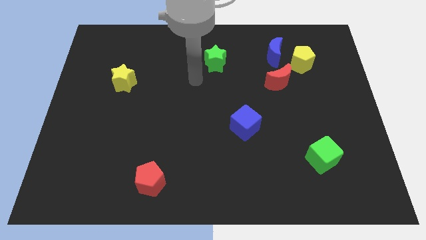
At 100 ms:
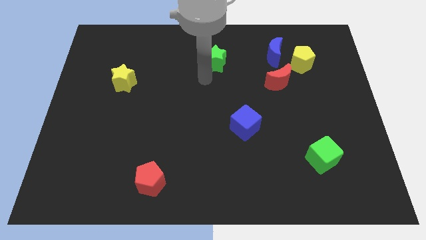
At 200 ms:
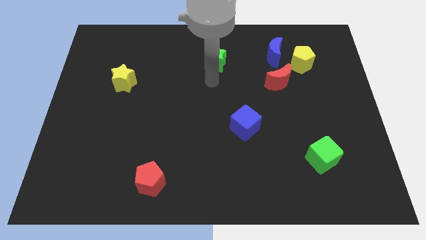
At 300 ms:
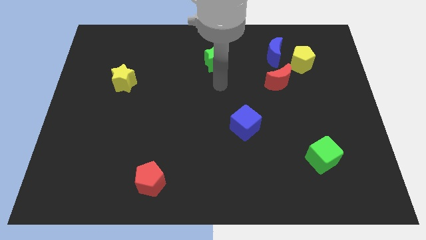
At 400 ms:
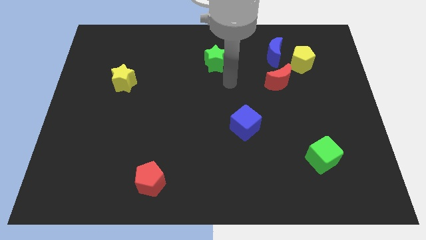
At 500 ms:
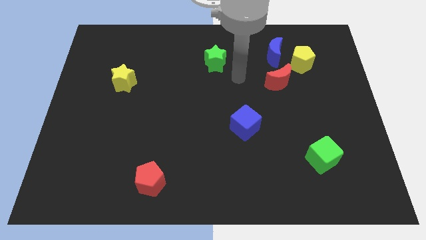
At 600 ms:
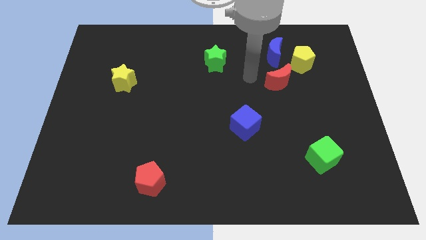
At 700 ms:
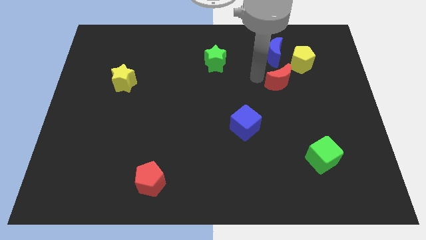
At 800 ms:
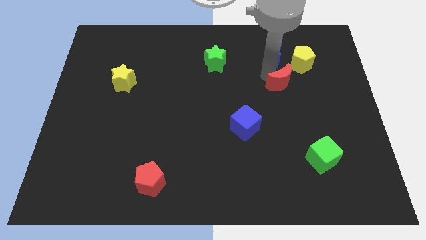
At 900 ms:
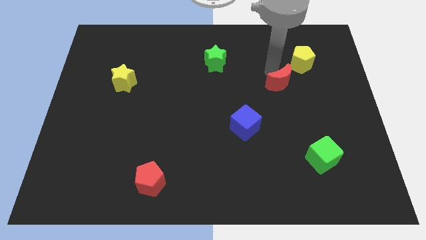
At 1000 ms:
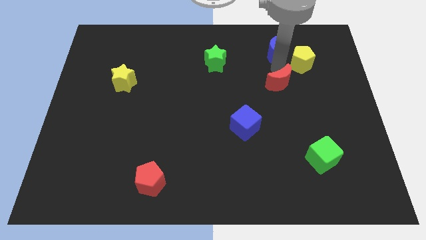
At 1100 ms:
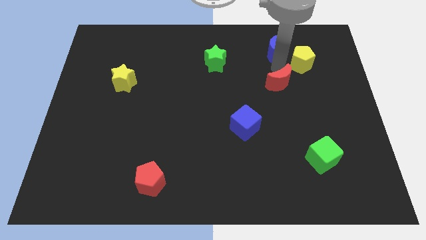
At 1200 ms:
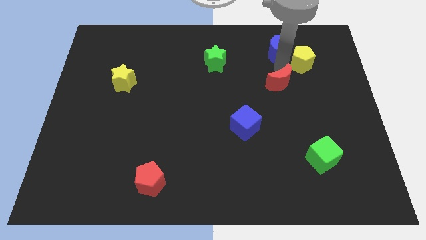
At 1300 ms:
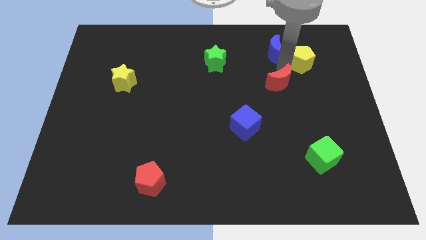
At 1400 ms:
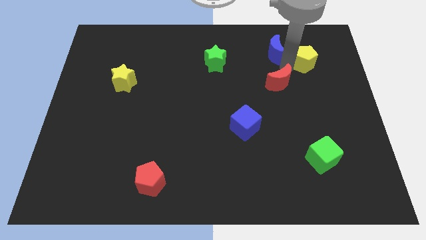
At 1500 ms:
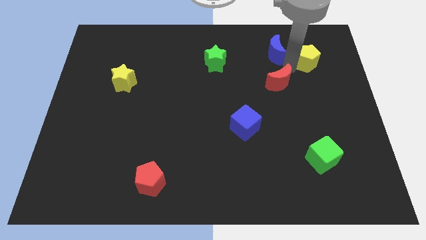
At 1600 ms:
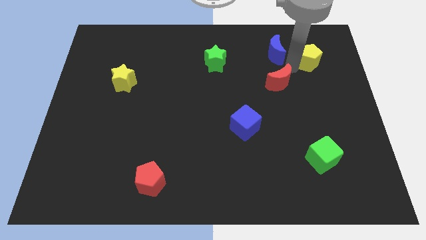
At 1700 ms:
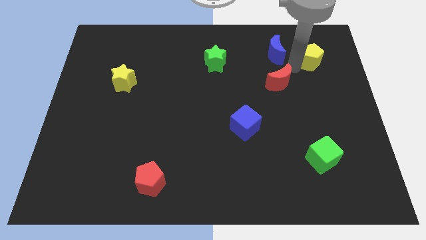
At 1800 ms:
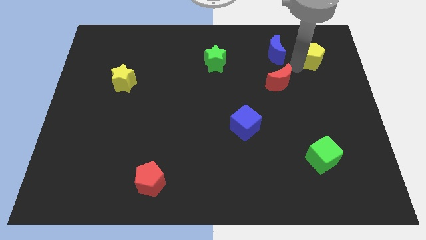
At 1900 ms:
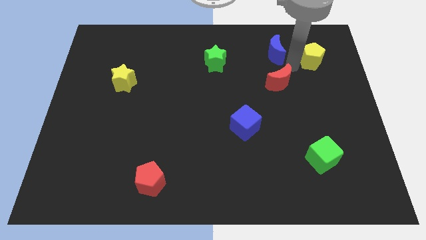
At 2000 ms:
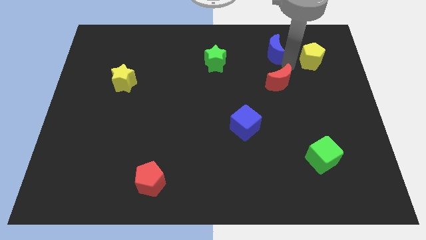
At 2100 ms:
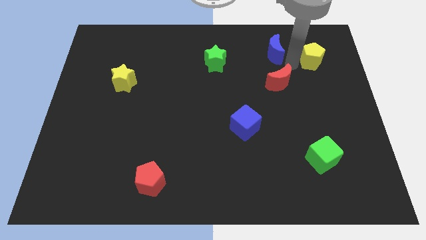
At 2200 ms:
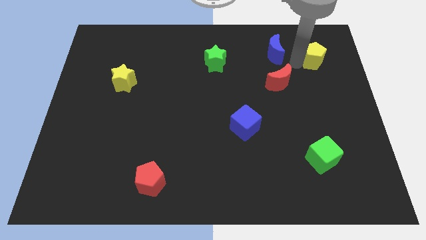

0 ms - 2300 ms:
separate the yellow pentagon from the blue moon and red moon

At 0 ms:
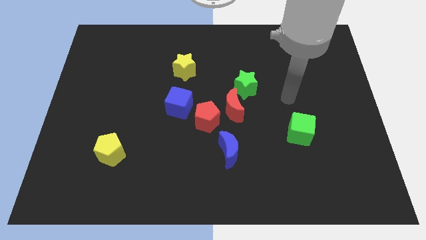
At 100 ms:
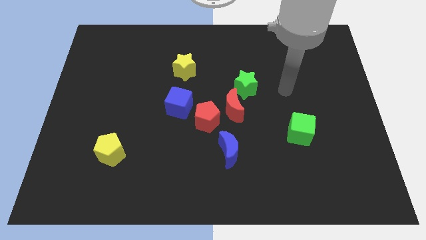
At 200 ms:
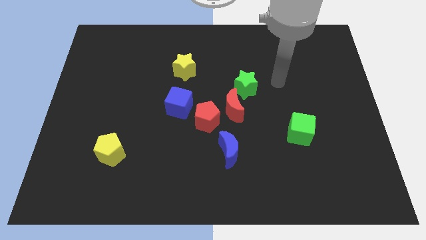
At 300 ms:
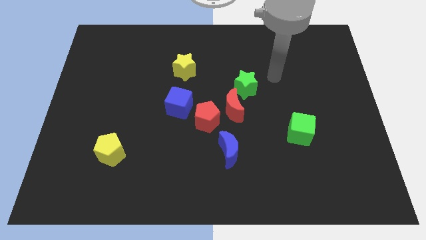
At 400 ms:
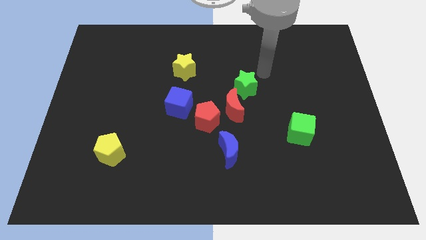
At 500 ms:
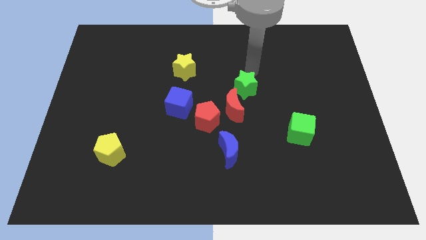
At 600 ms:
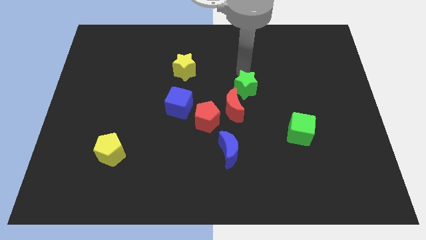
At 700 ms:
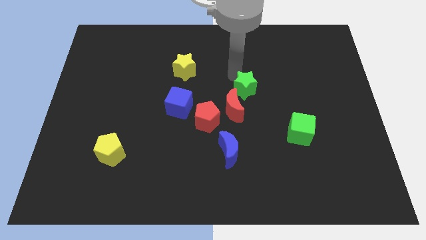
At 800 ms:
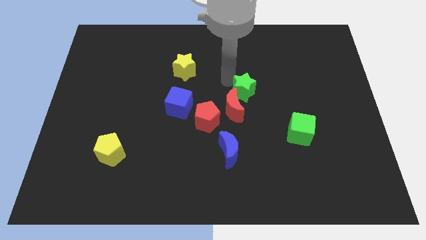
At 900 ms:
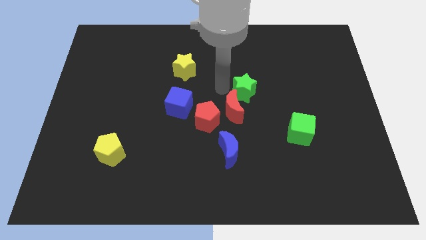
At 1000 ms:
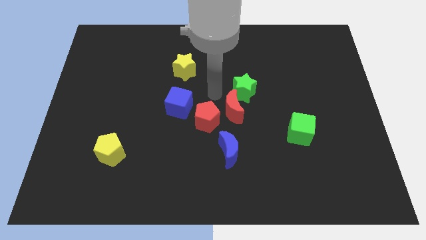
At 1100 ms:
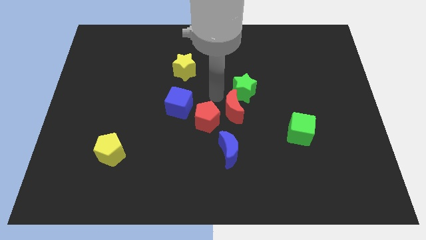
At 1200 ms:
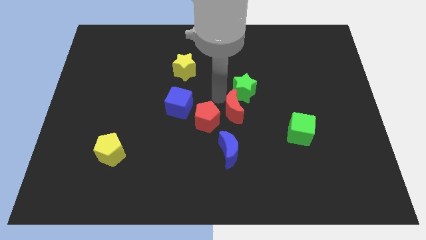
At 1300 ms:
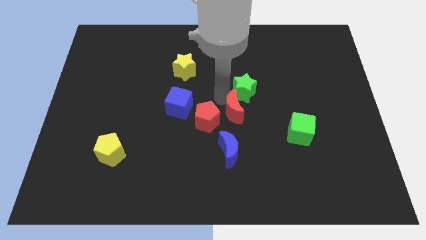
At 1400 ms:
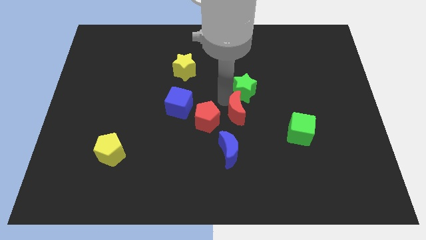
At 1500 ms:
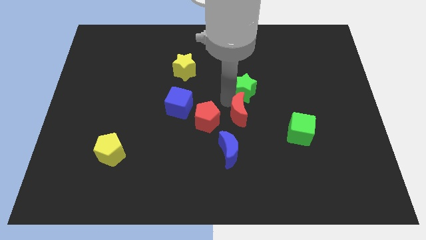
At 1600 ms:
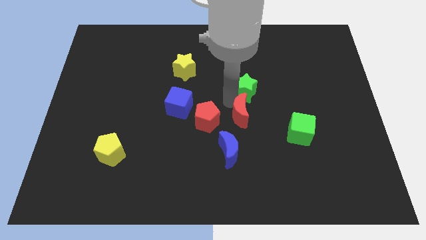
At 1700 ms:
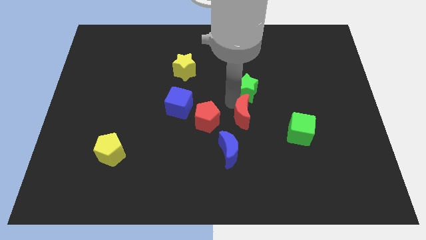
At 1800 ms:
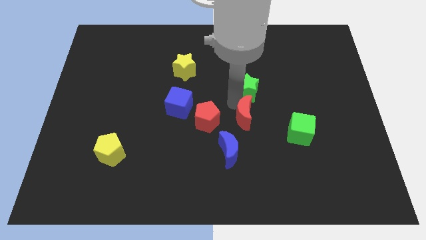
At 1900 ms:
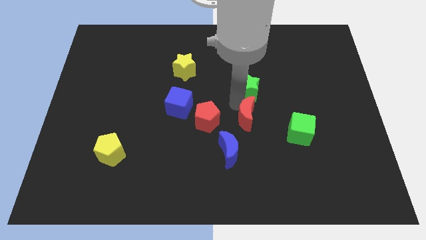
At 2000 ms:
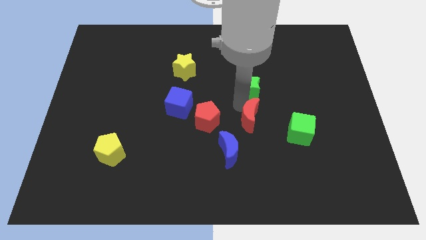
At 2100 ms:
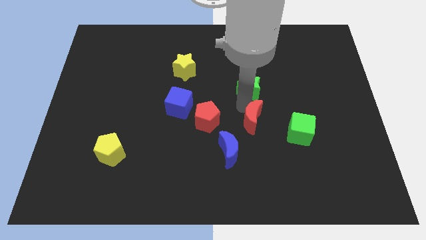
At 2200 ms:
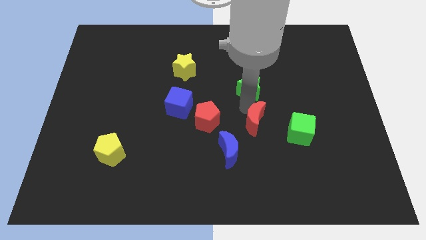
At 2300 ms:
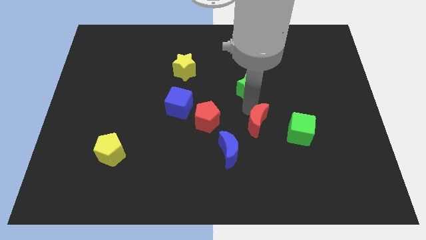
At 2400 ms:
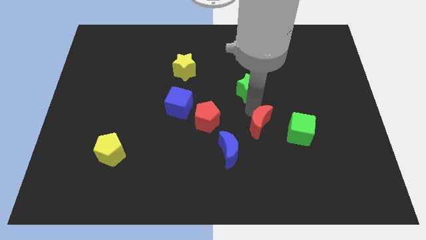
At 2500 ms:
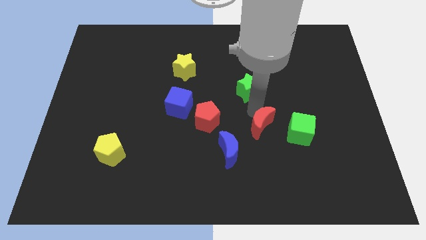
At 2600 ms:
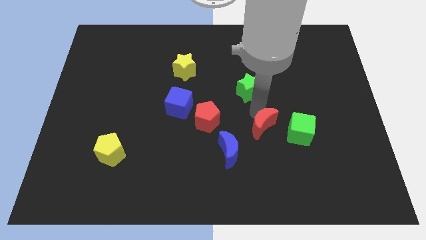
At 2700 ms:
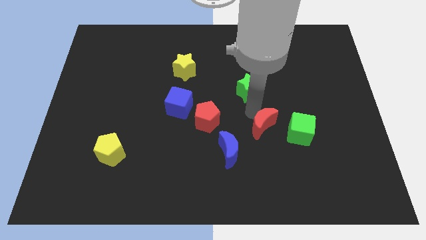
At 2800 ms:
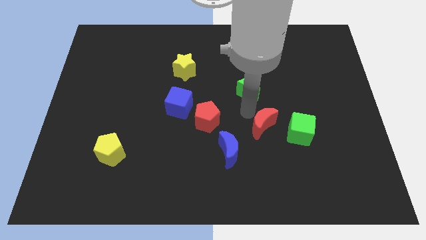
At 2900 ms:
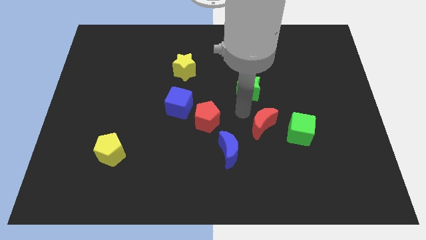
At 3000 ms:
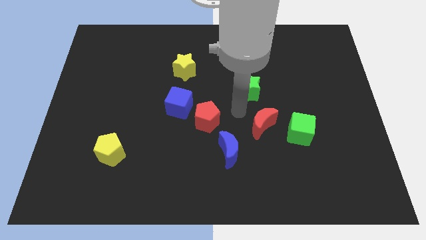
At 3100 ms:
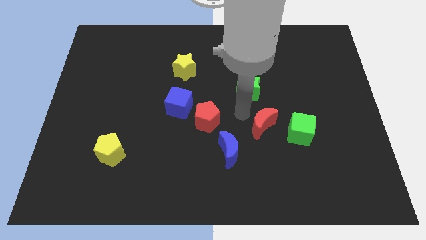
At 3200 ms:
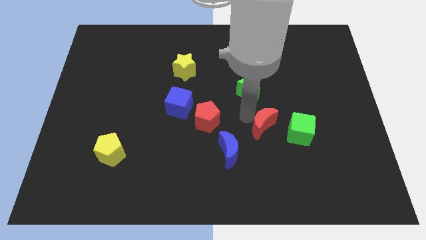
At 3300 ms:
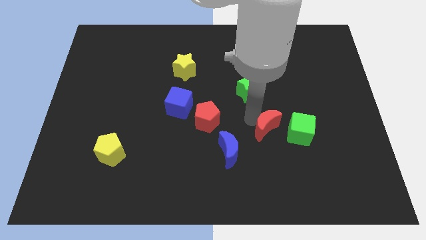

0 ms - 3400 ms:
separate the red moon from the red pentagon and green star

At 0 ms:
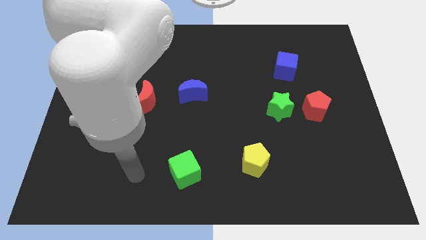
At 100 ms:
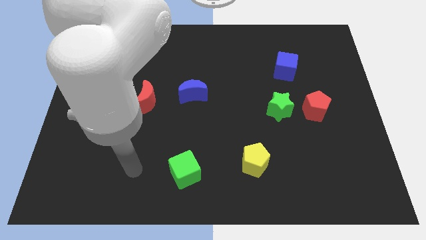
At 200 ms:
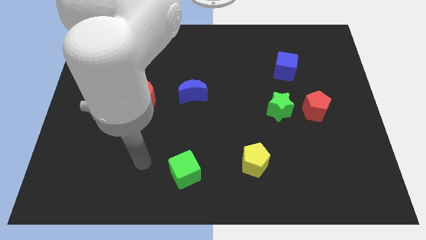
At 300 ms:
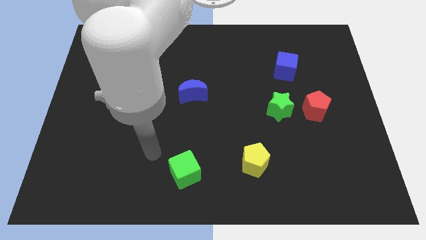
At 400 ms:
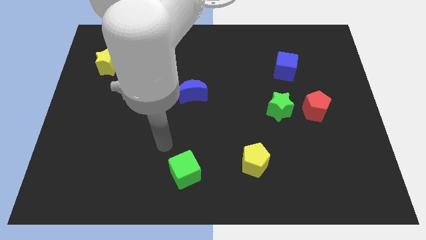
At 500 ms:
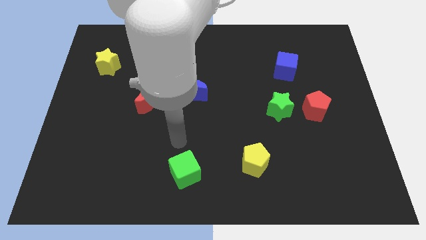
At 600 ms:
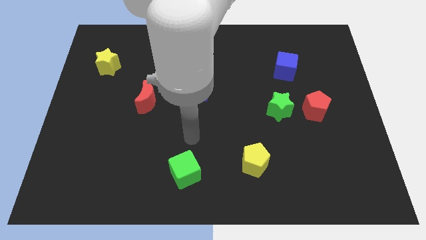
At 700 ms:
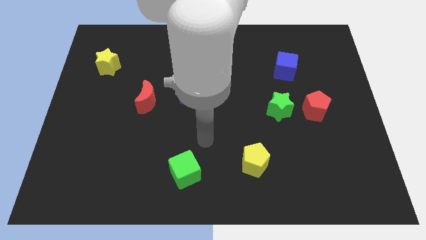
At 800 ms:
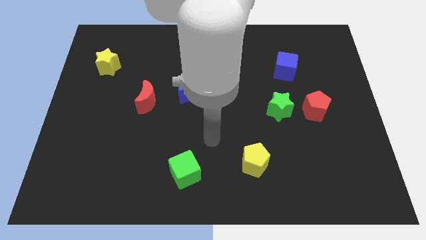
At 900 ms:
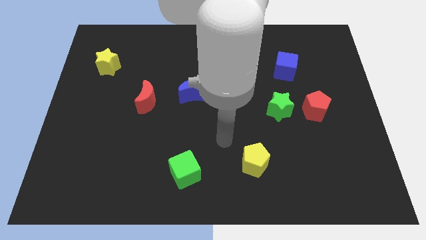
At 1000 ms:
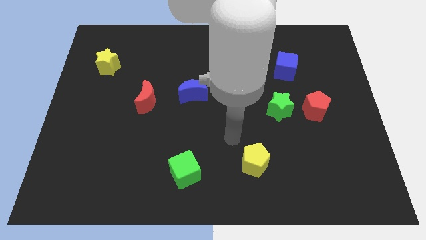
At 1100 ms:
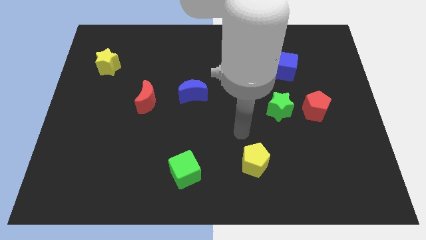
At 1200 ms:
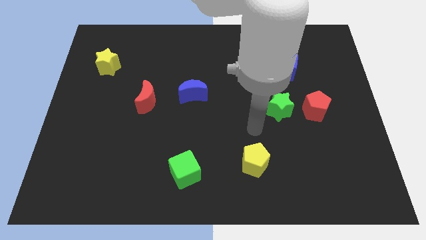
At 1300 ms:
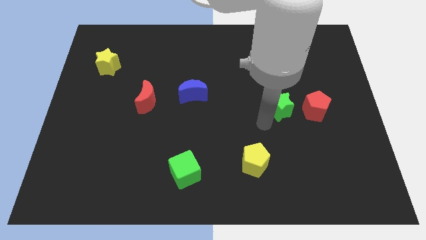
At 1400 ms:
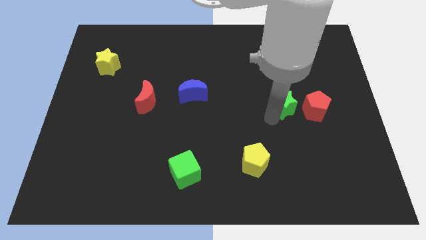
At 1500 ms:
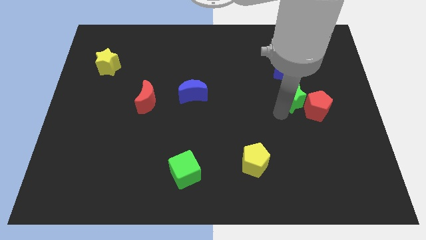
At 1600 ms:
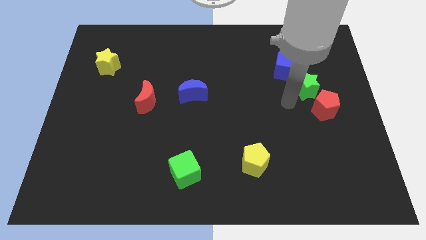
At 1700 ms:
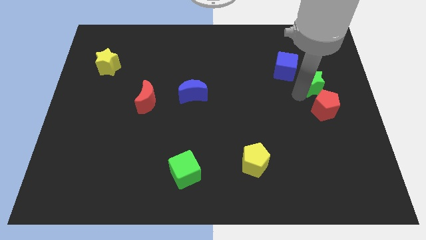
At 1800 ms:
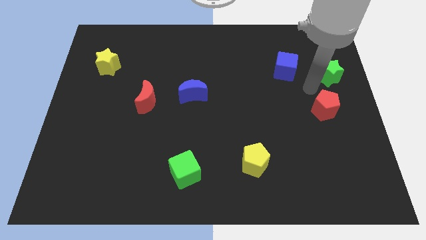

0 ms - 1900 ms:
pull the red pentagon apart from the green star

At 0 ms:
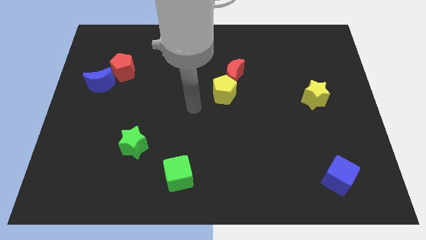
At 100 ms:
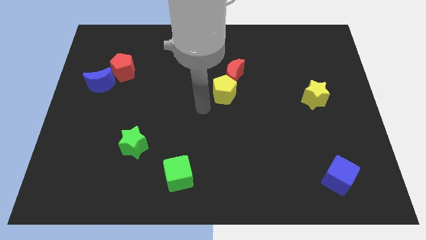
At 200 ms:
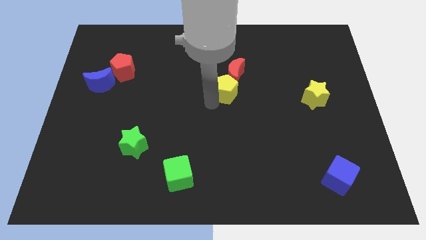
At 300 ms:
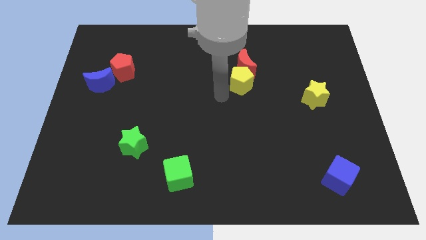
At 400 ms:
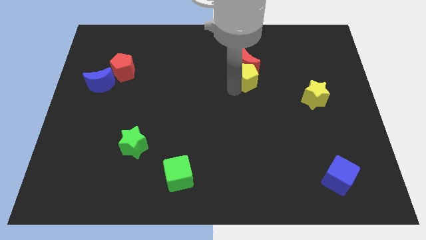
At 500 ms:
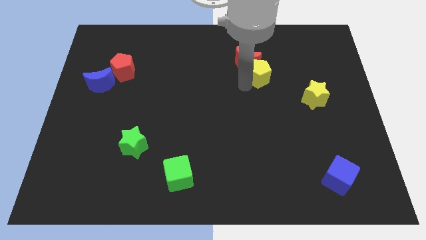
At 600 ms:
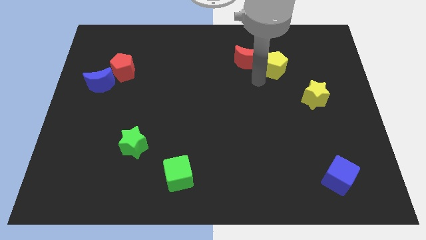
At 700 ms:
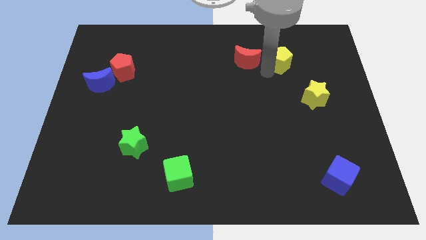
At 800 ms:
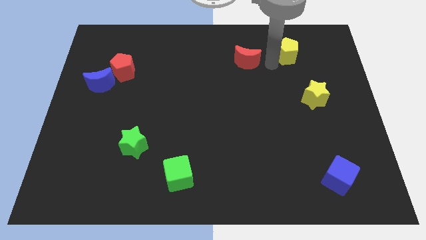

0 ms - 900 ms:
move the red moon away from the yellow pentagon

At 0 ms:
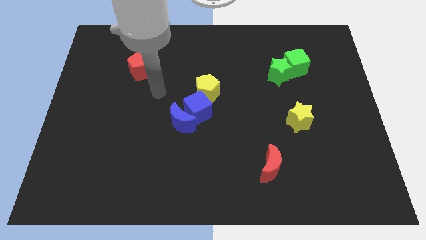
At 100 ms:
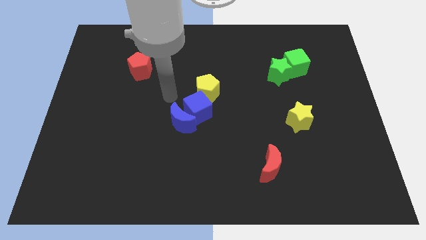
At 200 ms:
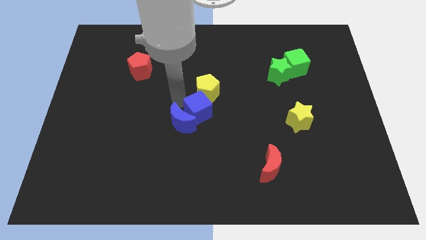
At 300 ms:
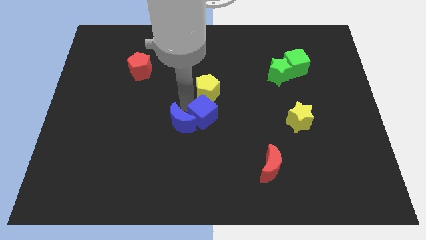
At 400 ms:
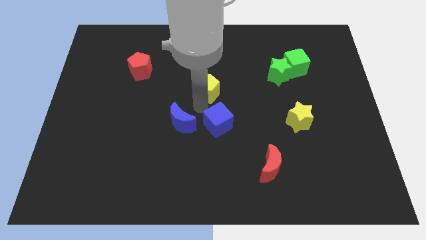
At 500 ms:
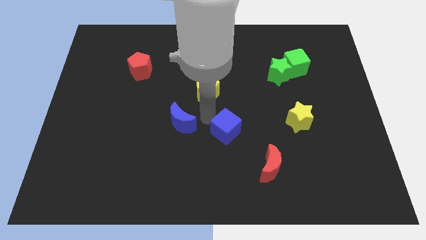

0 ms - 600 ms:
pull the blue moon apart from the blue cube

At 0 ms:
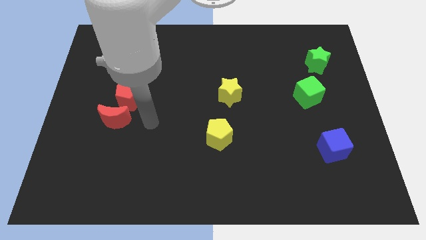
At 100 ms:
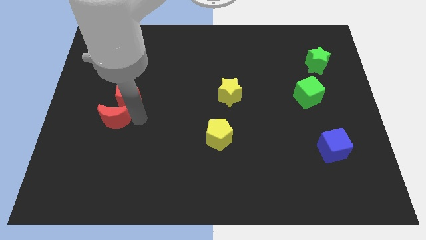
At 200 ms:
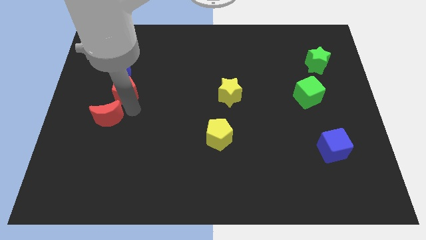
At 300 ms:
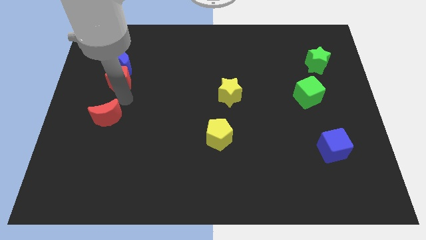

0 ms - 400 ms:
move the red moon away from the red pentagon
